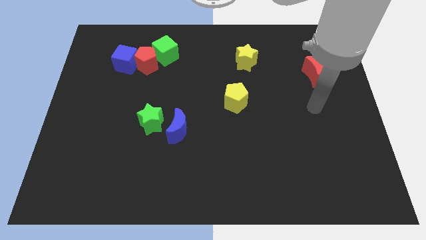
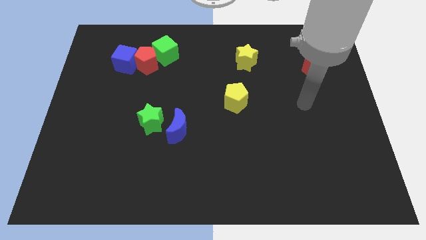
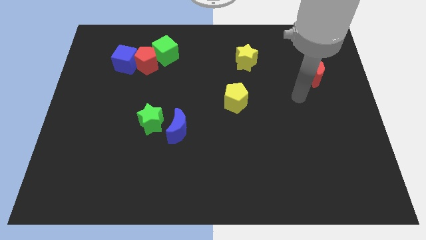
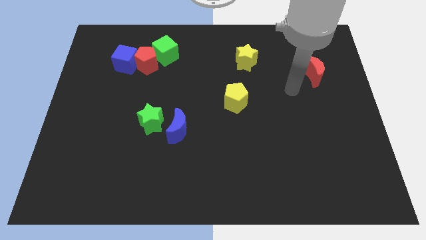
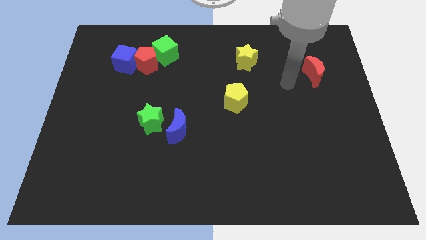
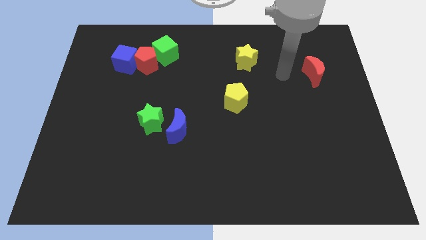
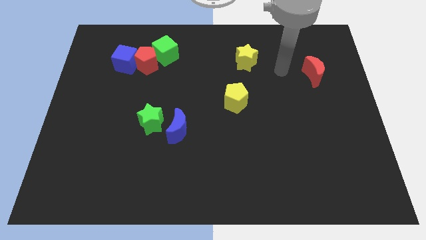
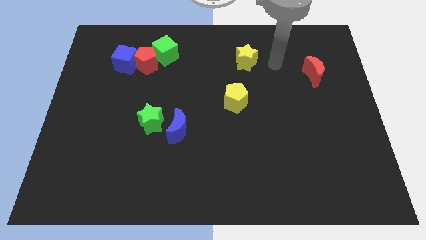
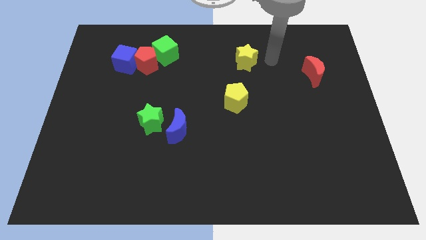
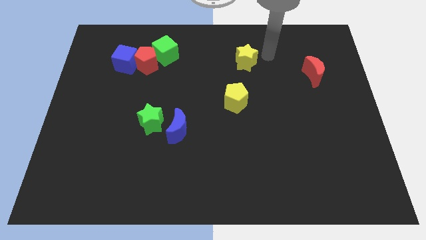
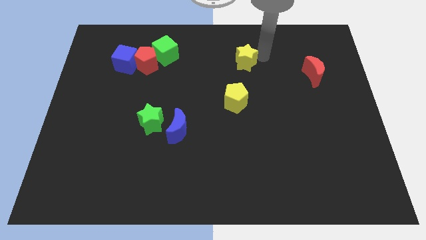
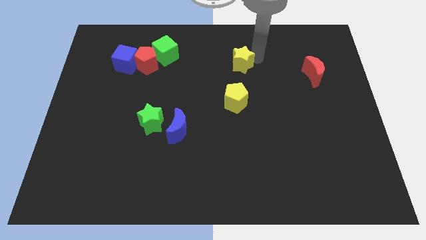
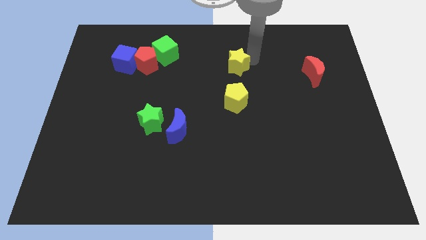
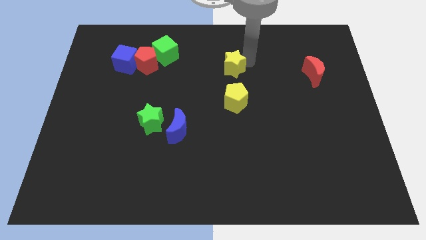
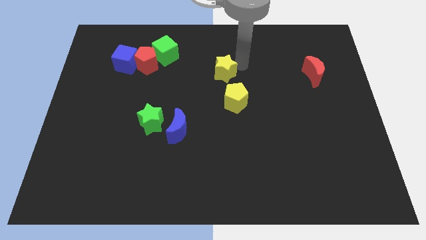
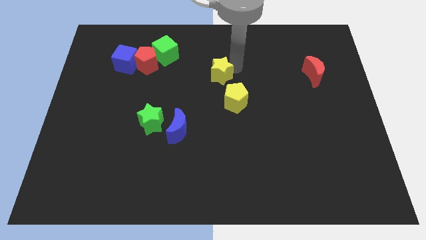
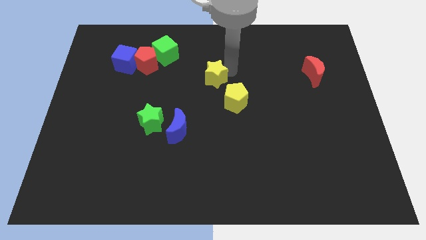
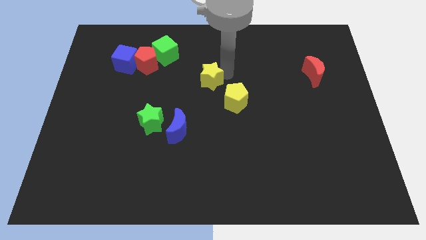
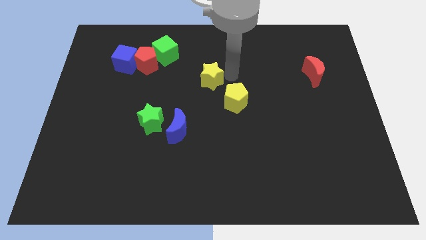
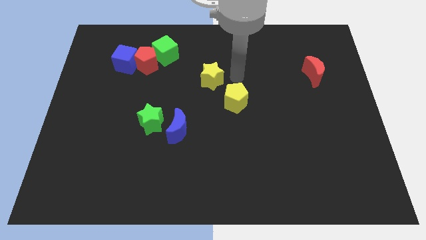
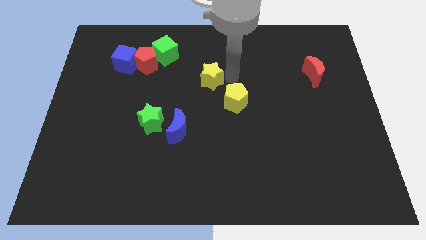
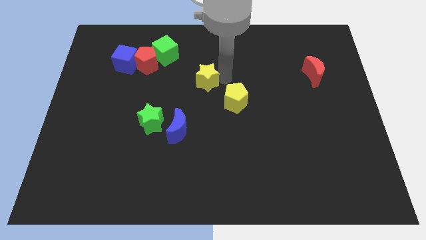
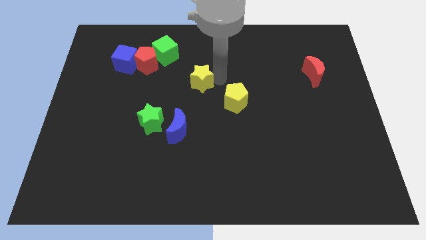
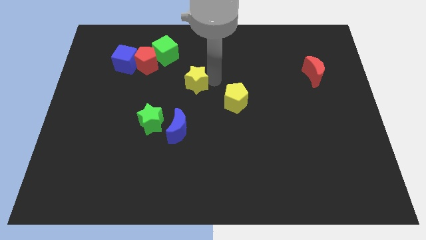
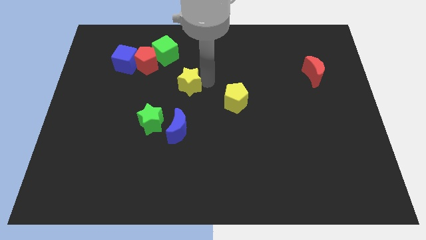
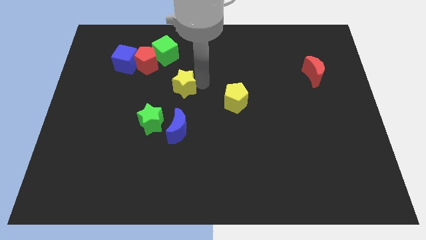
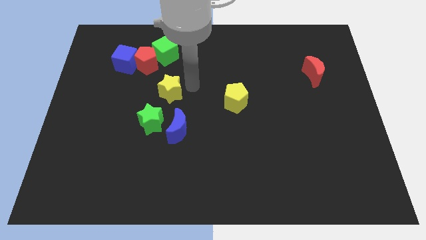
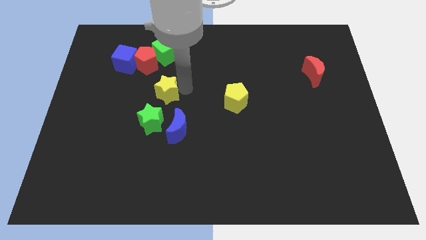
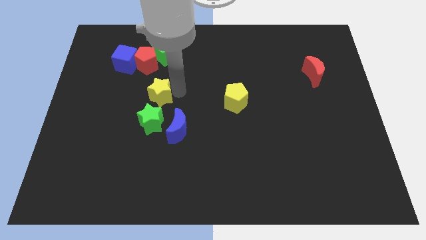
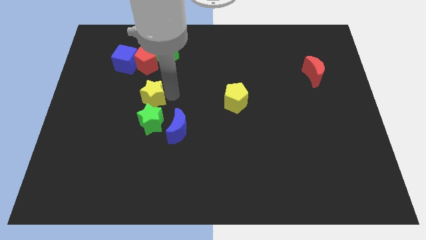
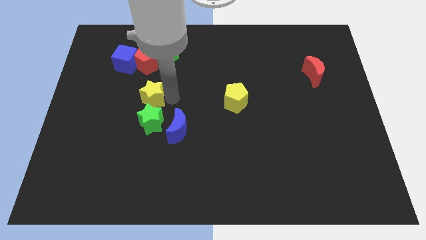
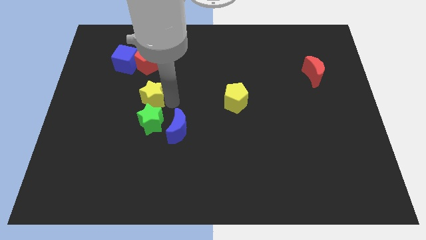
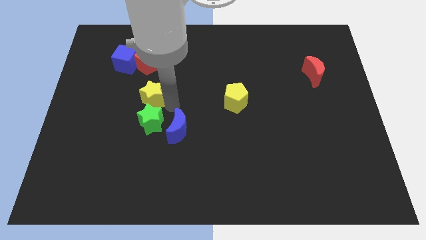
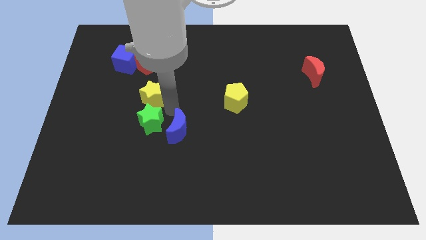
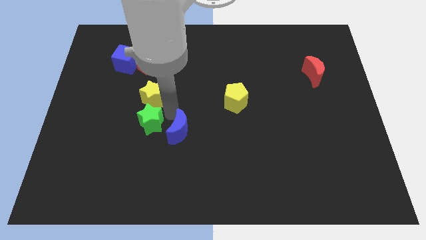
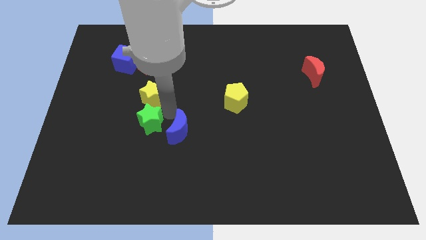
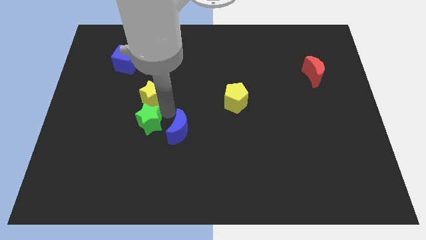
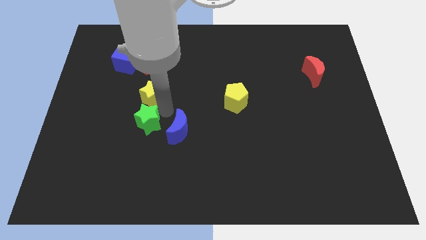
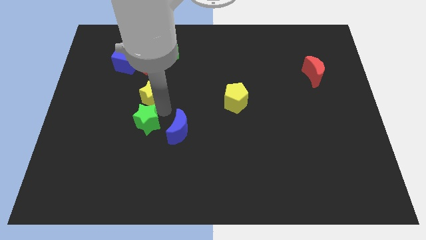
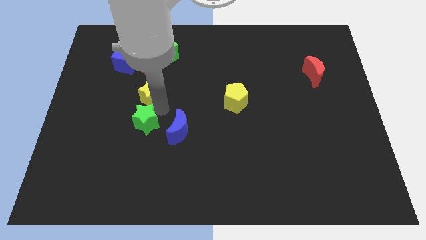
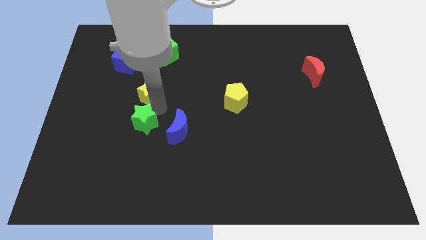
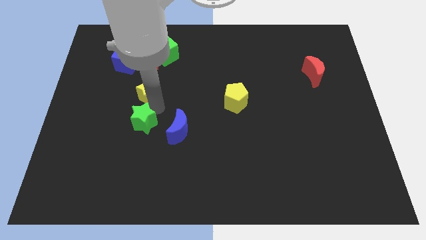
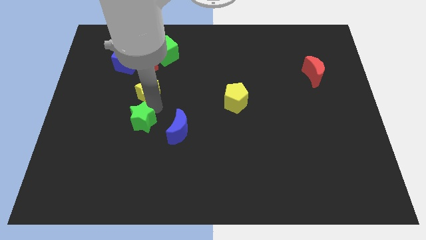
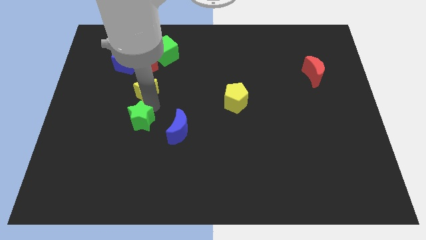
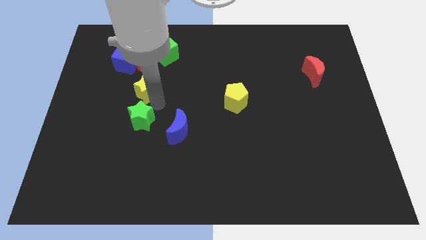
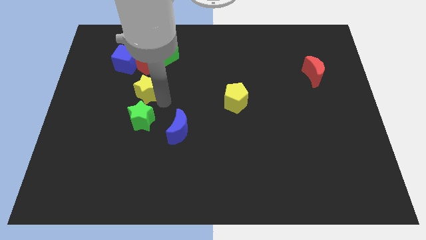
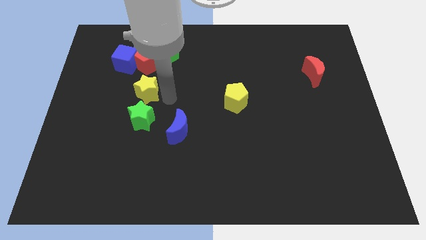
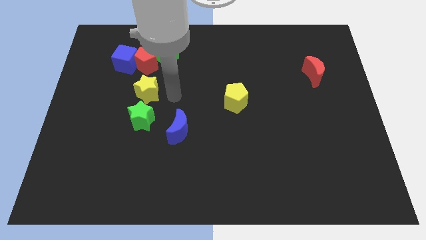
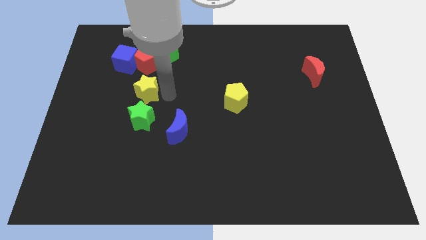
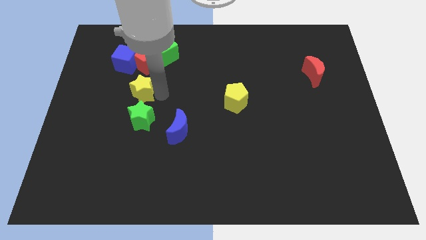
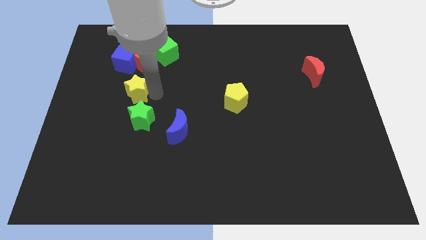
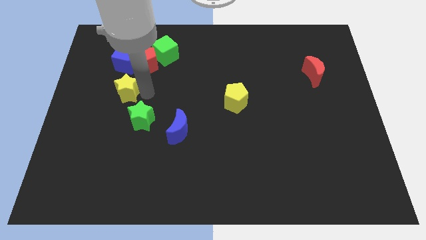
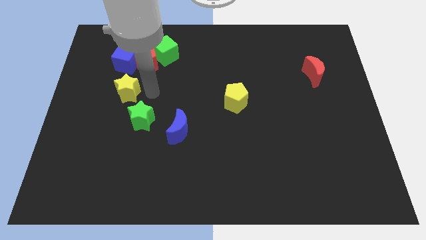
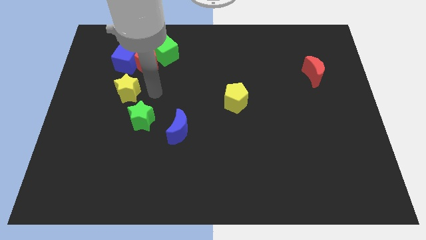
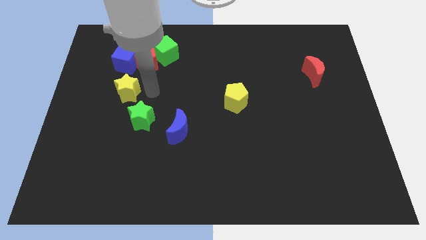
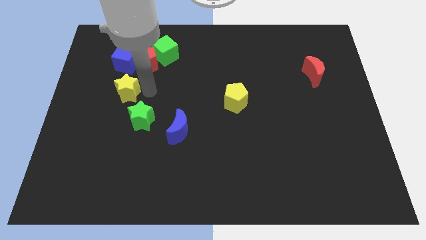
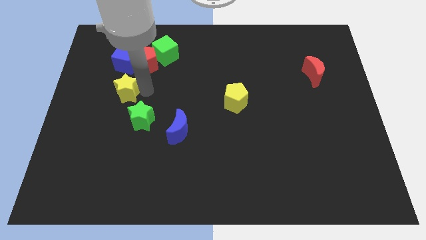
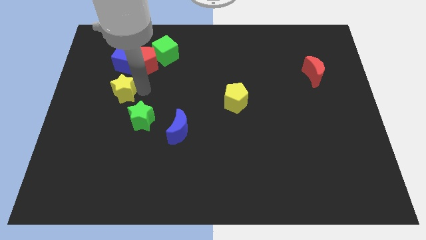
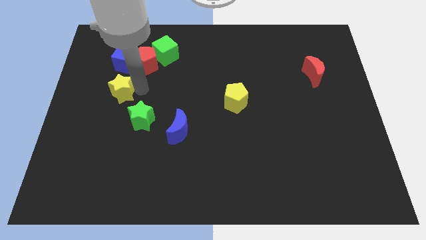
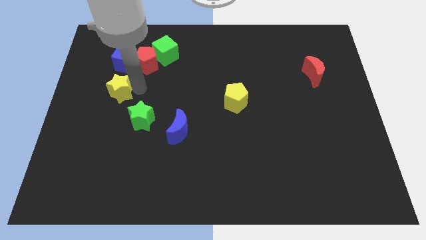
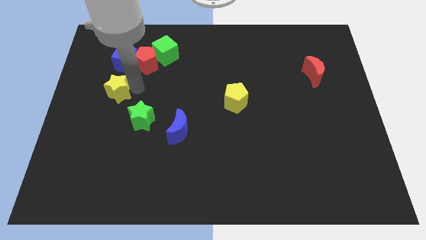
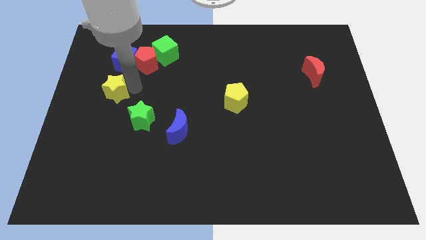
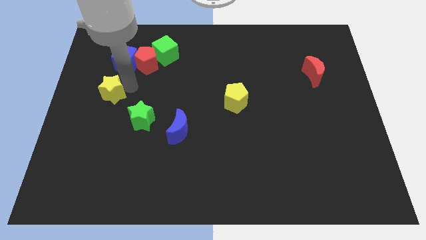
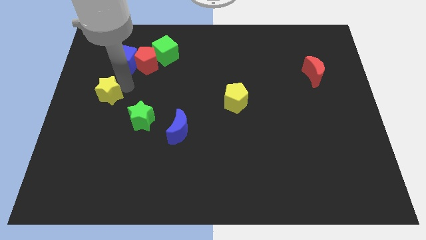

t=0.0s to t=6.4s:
put the yellow star to the left side of the board
